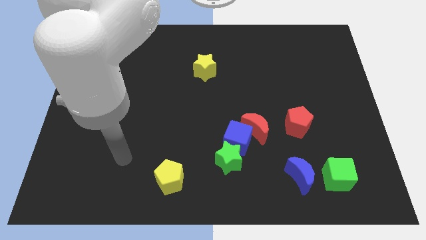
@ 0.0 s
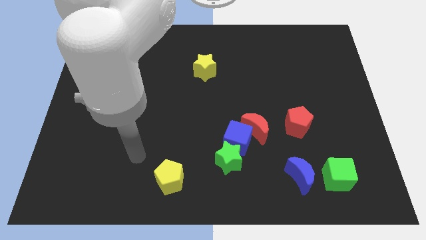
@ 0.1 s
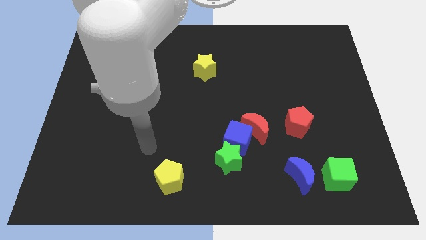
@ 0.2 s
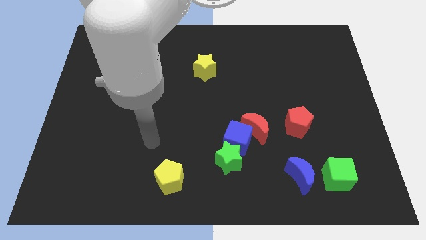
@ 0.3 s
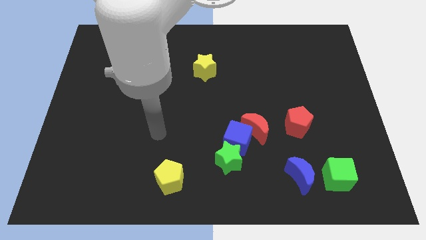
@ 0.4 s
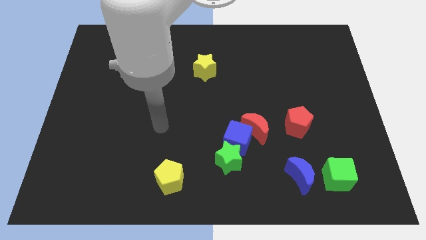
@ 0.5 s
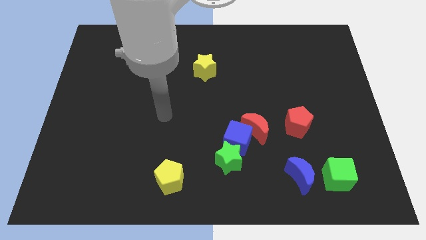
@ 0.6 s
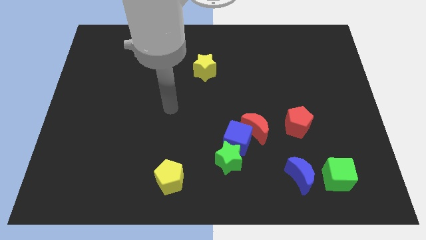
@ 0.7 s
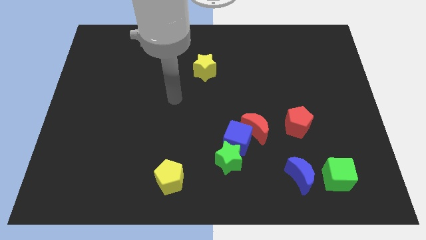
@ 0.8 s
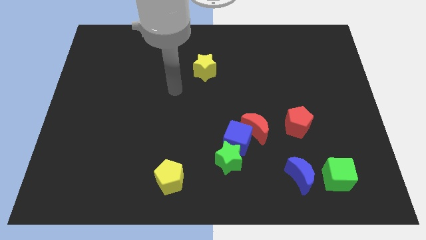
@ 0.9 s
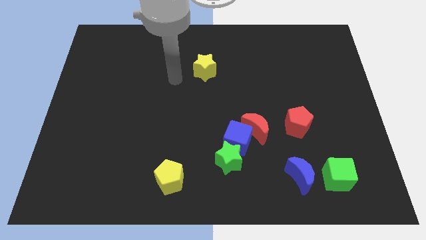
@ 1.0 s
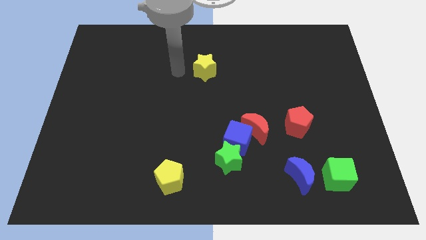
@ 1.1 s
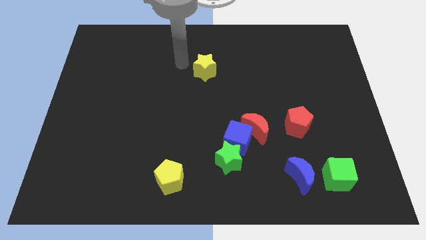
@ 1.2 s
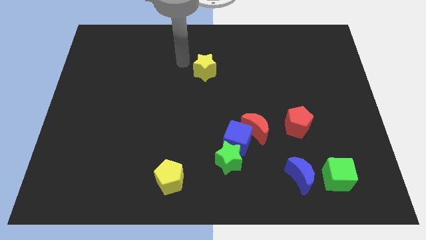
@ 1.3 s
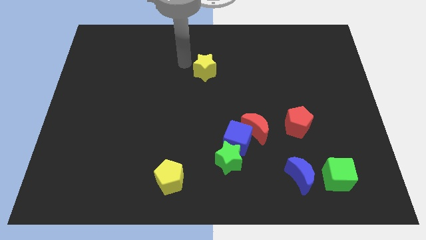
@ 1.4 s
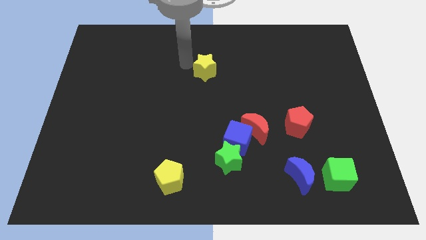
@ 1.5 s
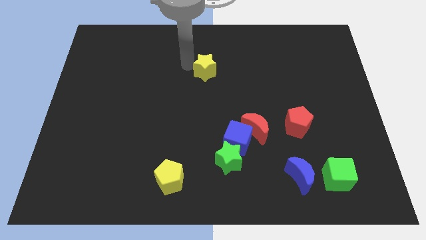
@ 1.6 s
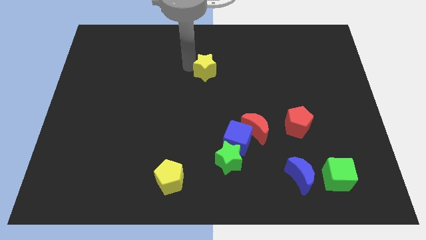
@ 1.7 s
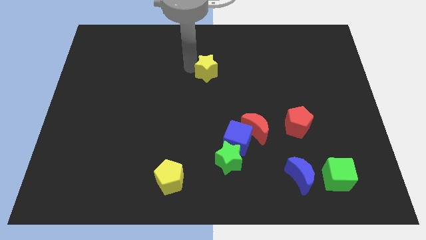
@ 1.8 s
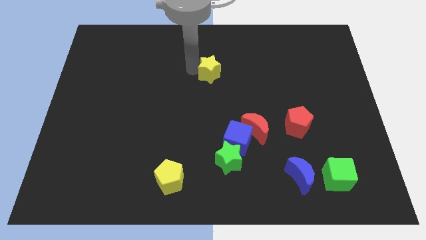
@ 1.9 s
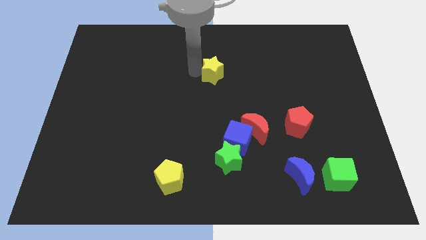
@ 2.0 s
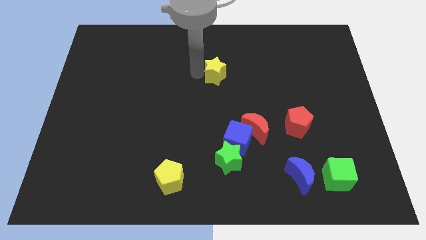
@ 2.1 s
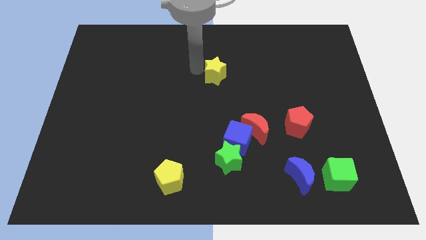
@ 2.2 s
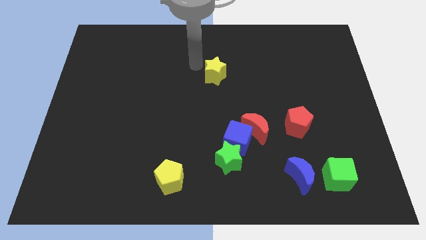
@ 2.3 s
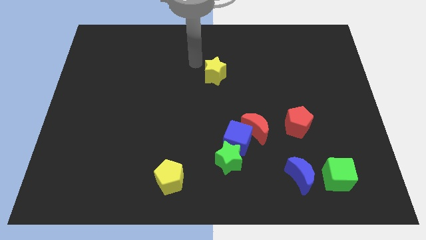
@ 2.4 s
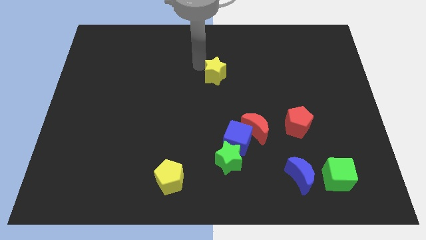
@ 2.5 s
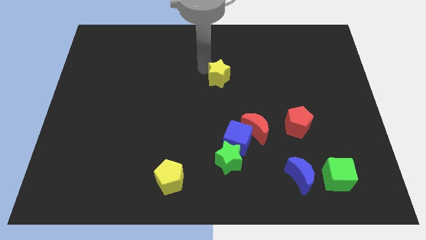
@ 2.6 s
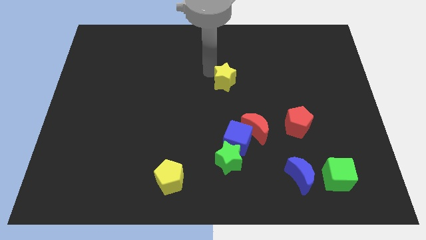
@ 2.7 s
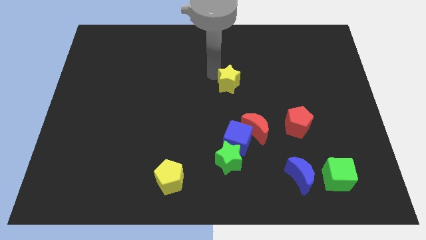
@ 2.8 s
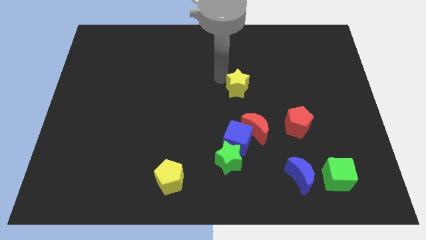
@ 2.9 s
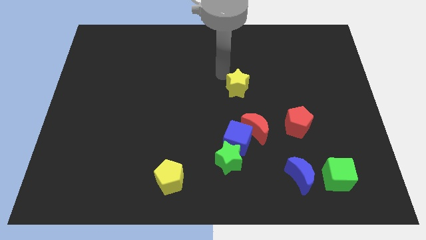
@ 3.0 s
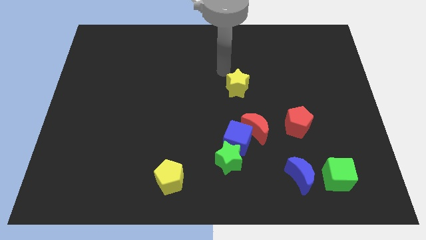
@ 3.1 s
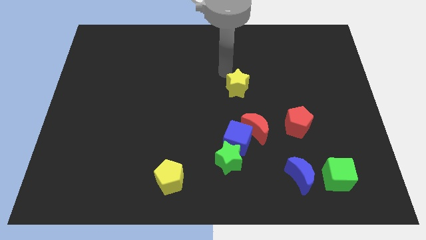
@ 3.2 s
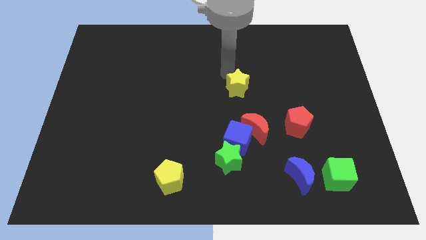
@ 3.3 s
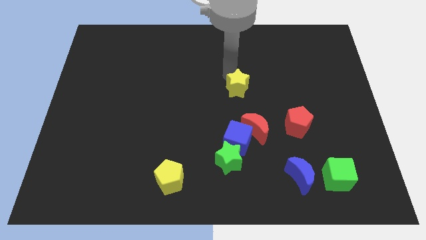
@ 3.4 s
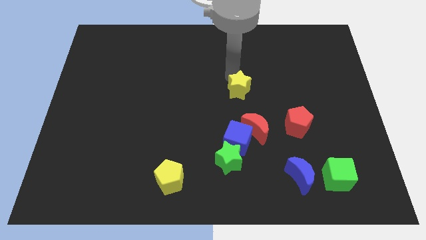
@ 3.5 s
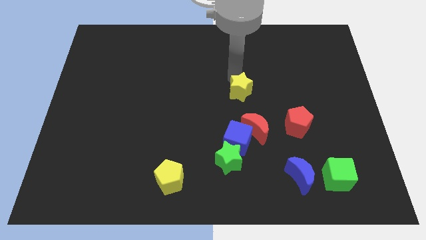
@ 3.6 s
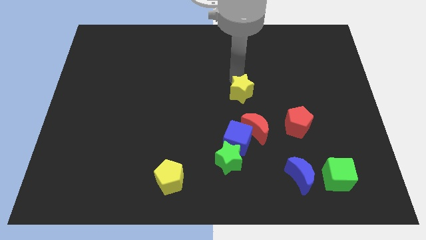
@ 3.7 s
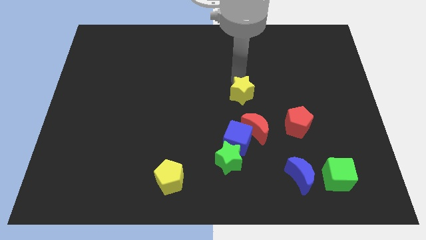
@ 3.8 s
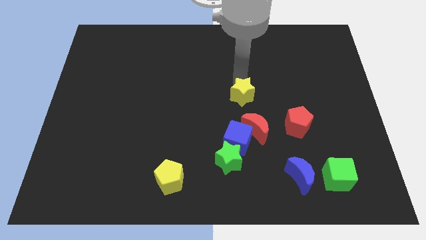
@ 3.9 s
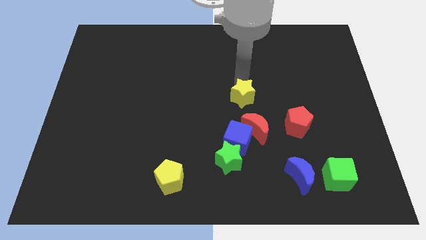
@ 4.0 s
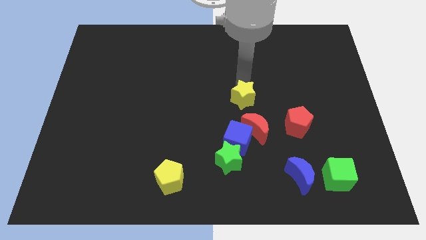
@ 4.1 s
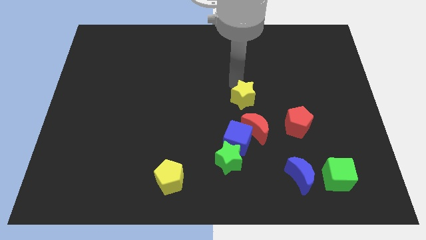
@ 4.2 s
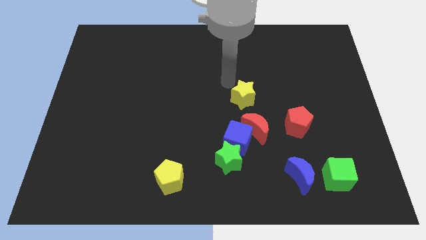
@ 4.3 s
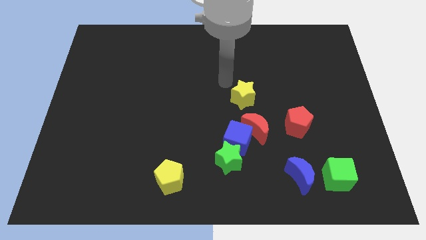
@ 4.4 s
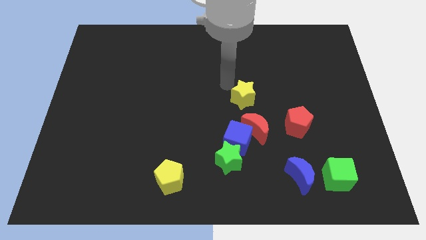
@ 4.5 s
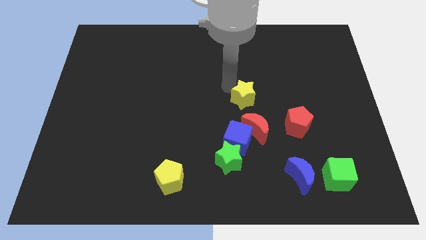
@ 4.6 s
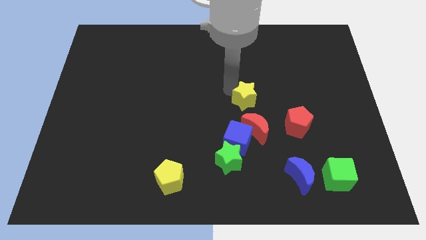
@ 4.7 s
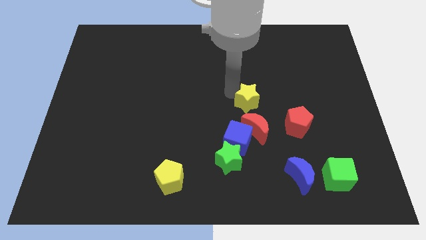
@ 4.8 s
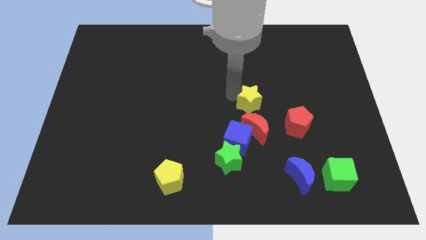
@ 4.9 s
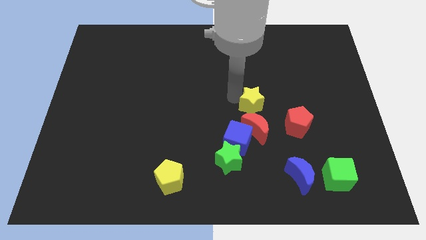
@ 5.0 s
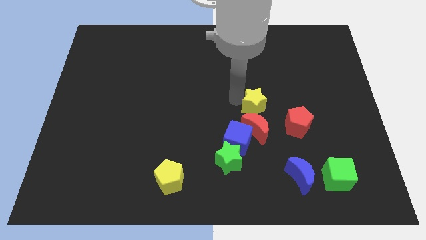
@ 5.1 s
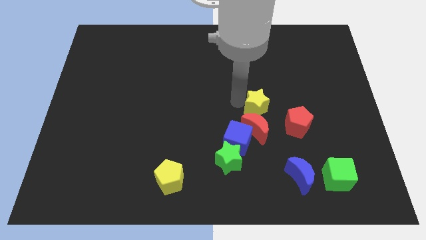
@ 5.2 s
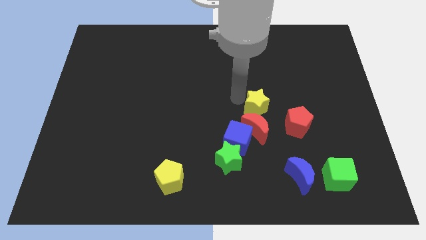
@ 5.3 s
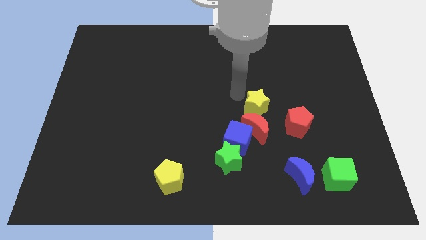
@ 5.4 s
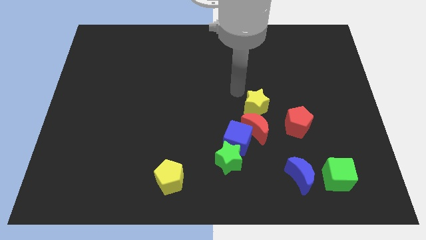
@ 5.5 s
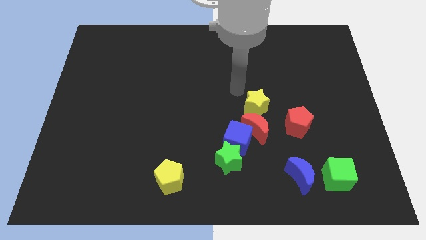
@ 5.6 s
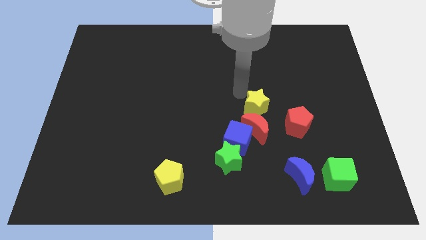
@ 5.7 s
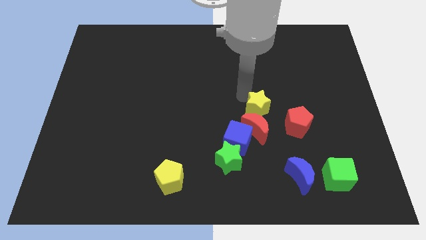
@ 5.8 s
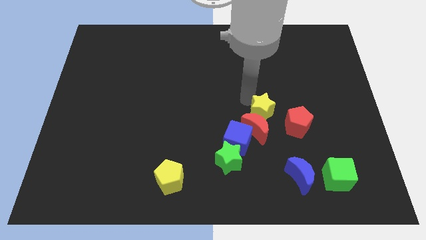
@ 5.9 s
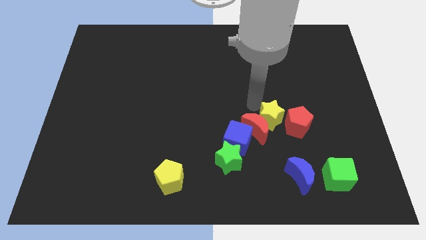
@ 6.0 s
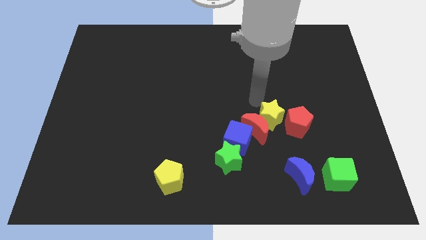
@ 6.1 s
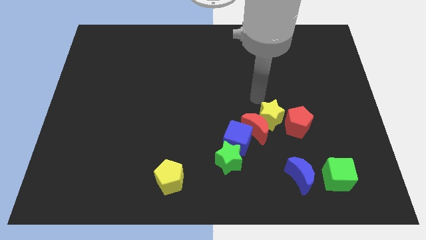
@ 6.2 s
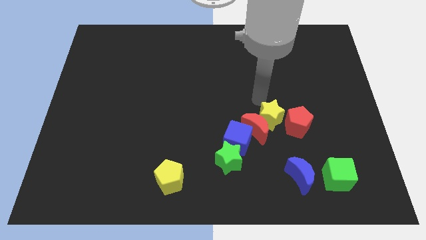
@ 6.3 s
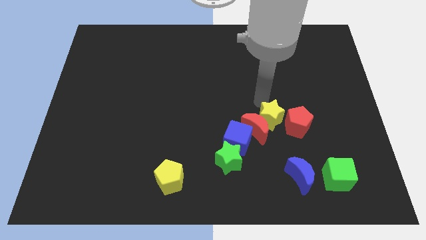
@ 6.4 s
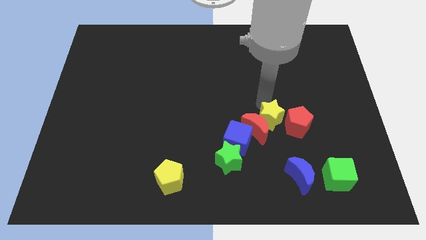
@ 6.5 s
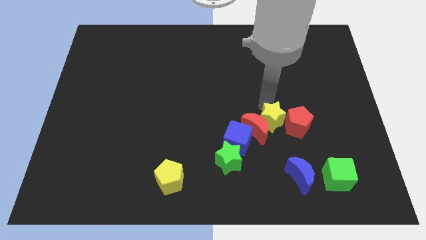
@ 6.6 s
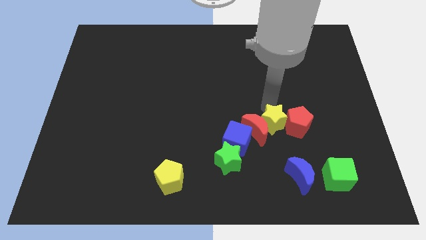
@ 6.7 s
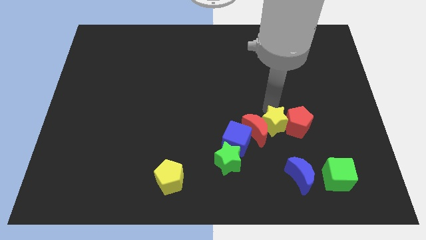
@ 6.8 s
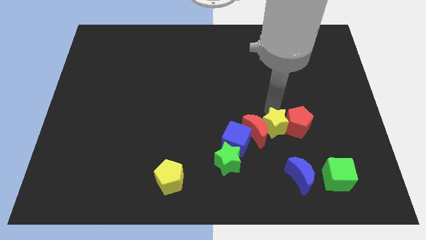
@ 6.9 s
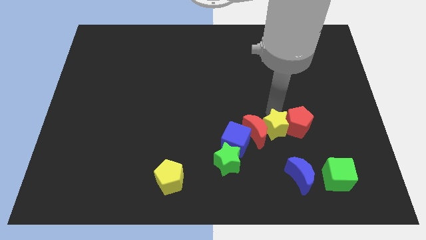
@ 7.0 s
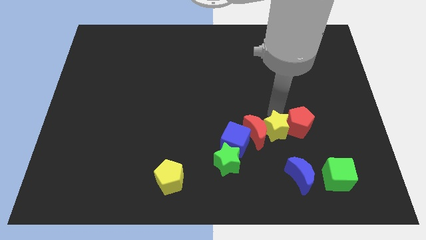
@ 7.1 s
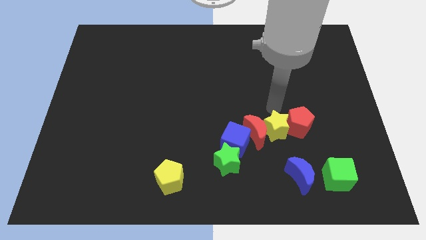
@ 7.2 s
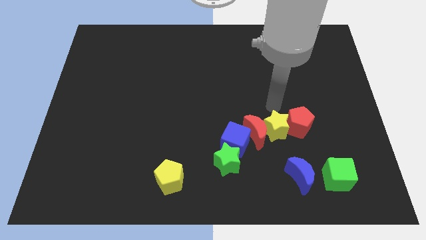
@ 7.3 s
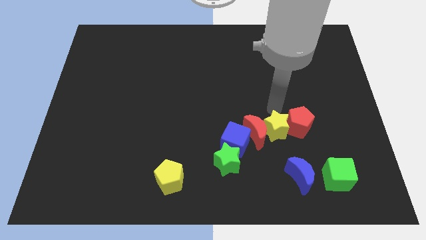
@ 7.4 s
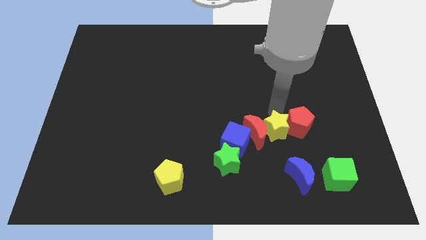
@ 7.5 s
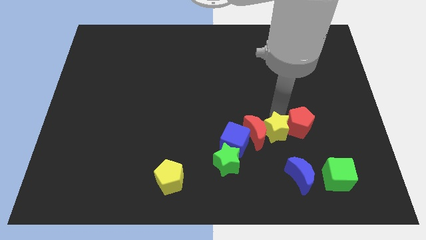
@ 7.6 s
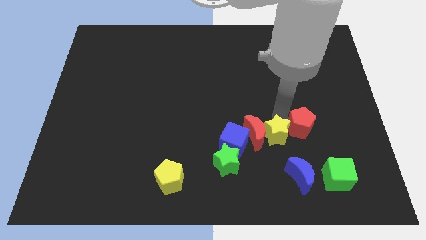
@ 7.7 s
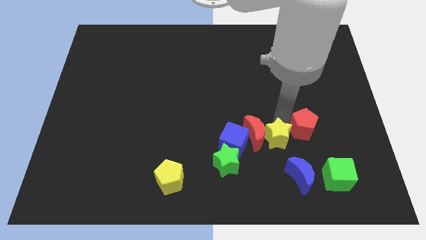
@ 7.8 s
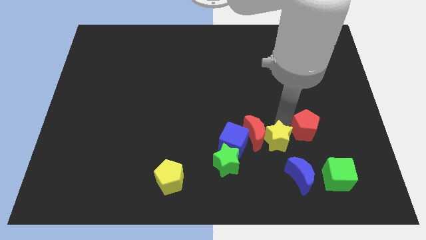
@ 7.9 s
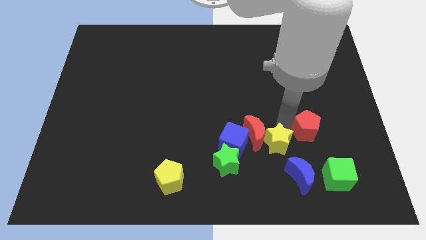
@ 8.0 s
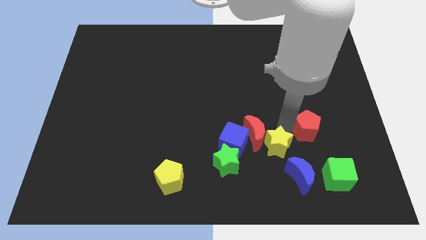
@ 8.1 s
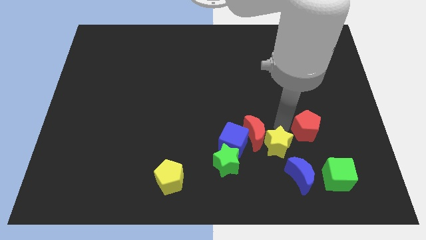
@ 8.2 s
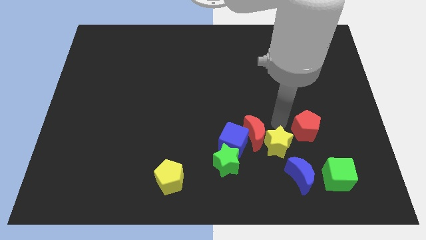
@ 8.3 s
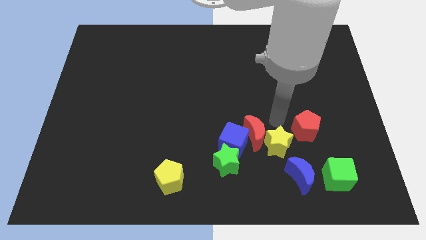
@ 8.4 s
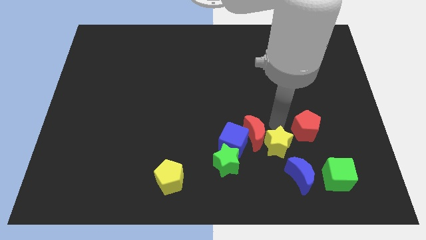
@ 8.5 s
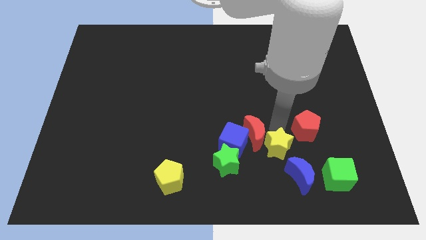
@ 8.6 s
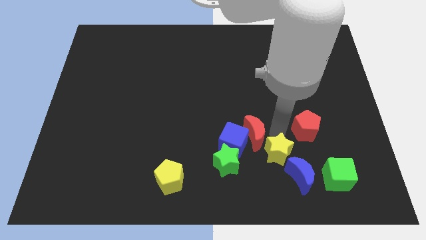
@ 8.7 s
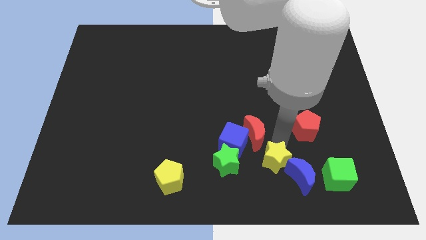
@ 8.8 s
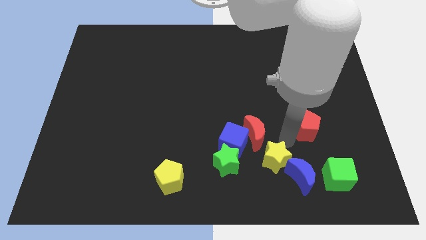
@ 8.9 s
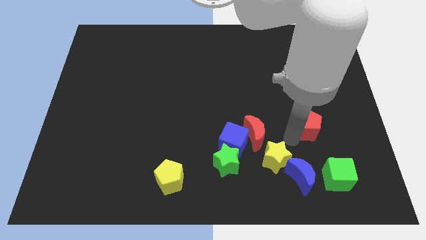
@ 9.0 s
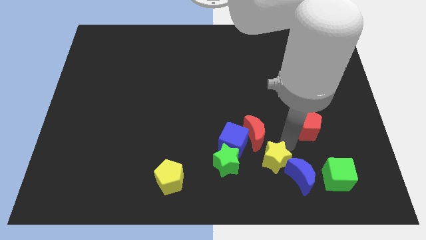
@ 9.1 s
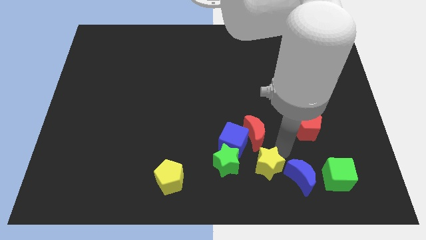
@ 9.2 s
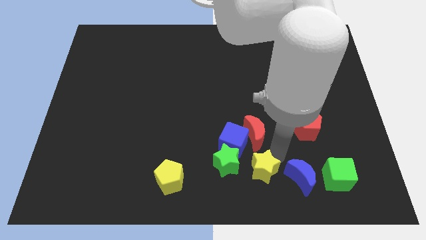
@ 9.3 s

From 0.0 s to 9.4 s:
put the yellow star to the bottom right side of the green star
